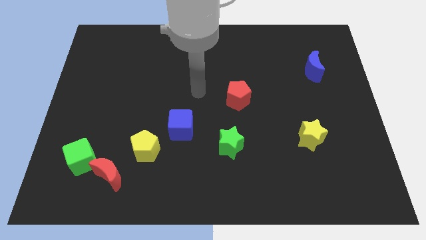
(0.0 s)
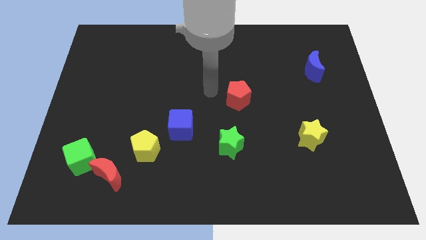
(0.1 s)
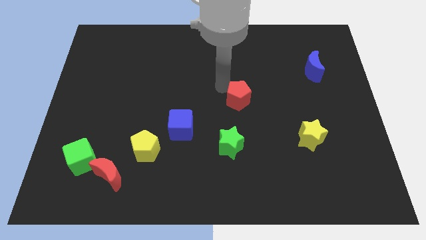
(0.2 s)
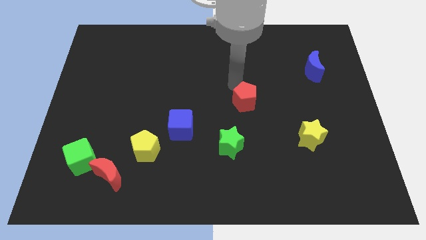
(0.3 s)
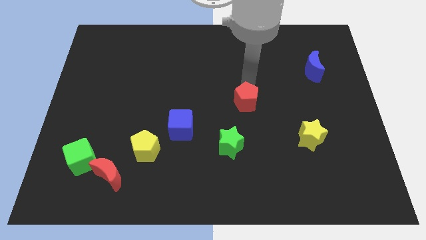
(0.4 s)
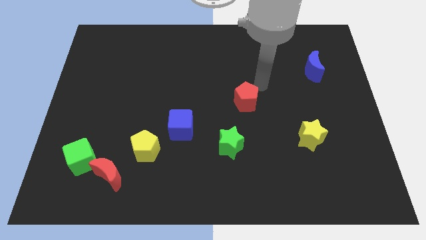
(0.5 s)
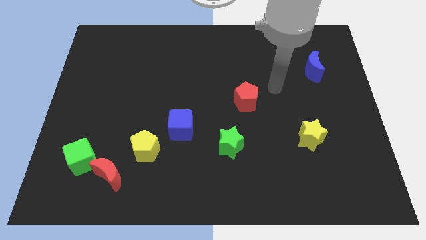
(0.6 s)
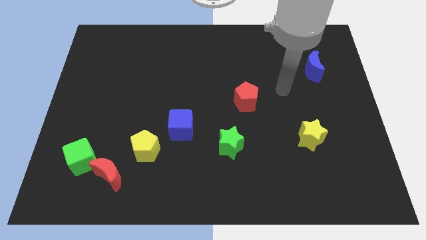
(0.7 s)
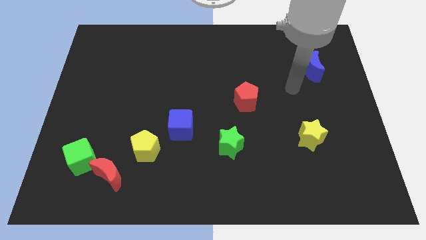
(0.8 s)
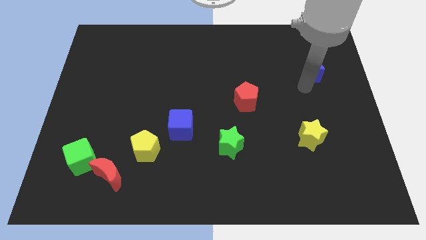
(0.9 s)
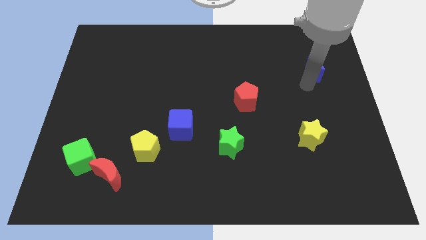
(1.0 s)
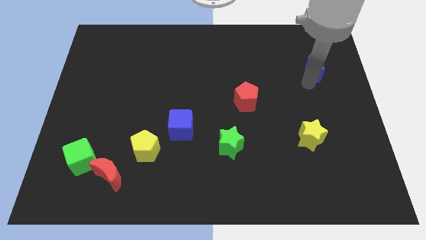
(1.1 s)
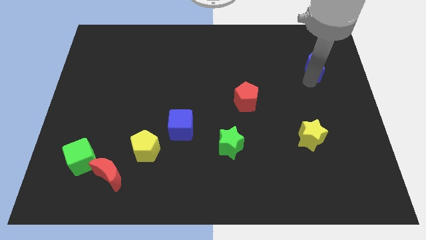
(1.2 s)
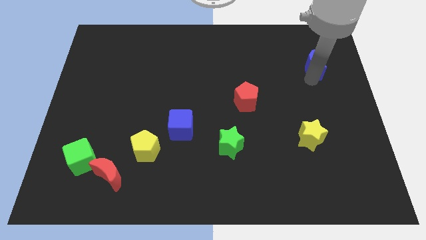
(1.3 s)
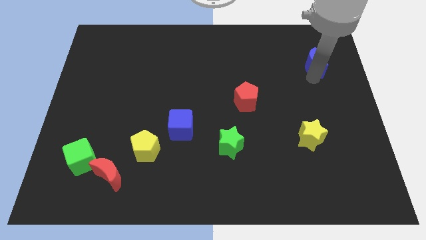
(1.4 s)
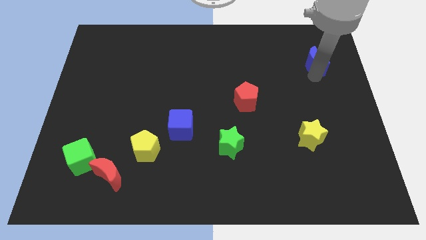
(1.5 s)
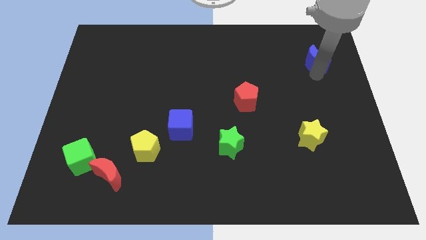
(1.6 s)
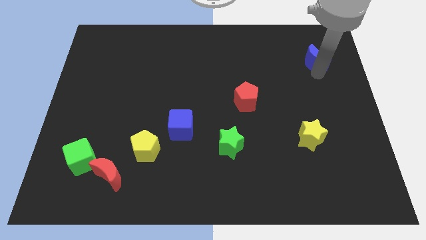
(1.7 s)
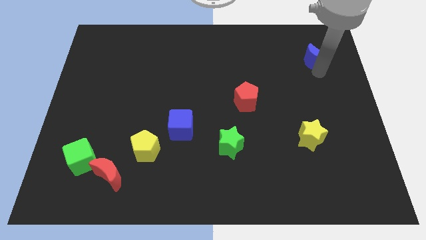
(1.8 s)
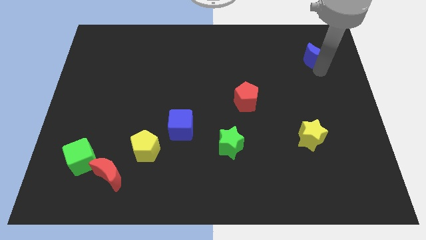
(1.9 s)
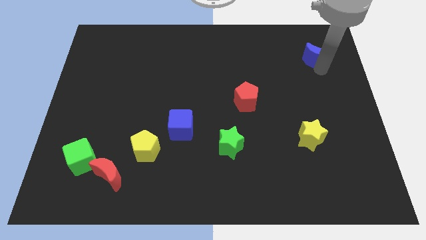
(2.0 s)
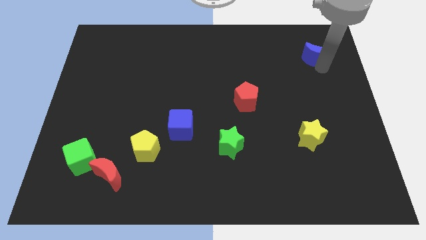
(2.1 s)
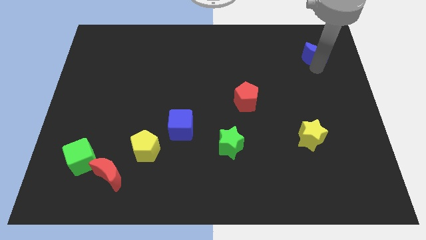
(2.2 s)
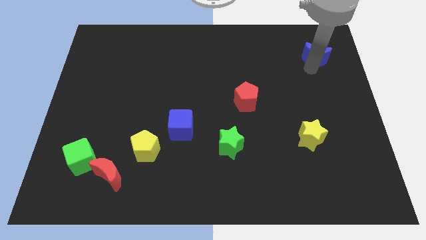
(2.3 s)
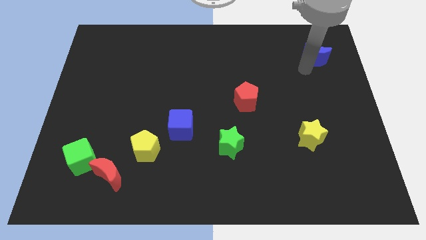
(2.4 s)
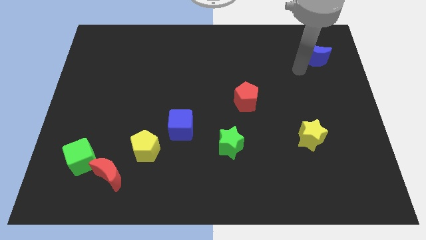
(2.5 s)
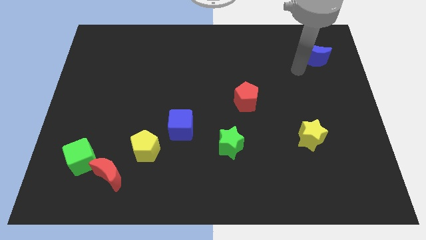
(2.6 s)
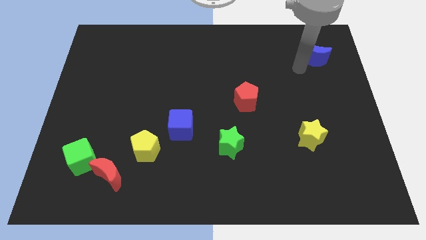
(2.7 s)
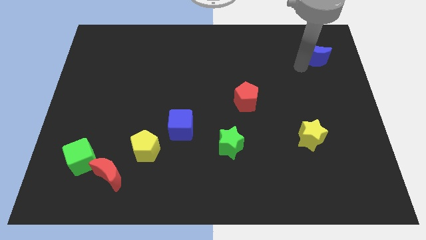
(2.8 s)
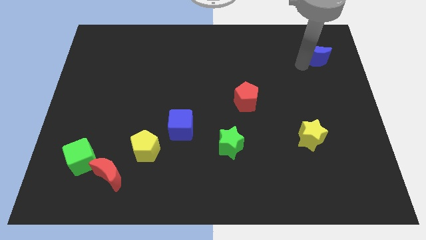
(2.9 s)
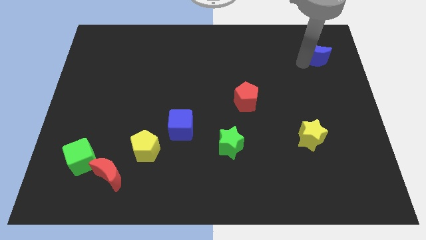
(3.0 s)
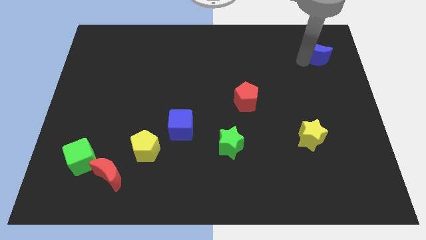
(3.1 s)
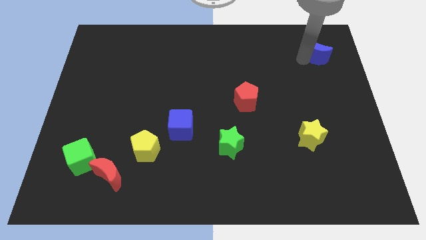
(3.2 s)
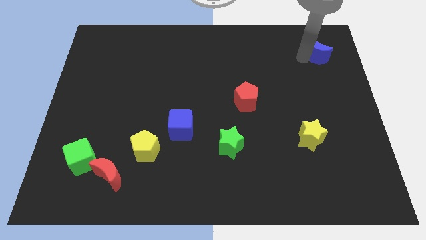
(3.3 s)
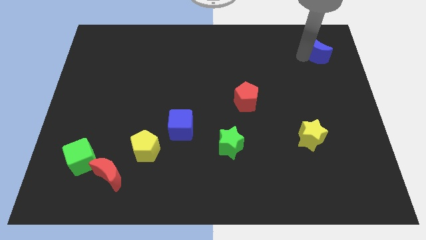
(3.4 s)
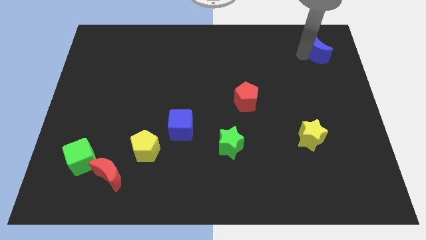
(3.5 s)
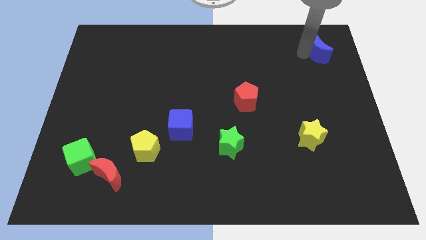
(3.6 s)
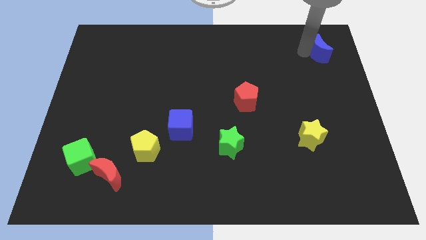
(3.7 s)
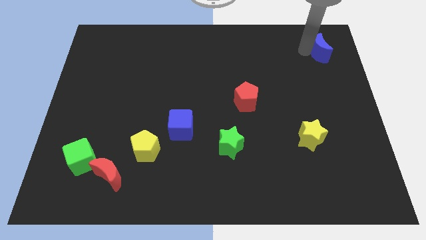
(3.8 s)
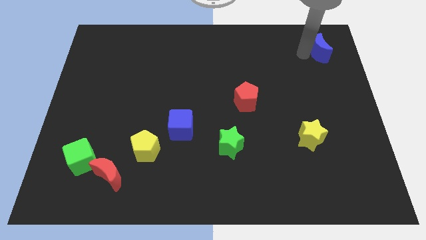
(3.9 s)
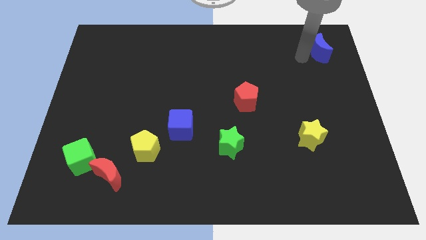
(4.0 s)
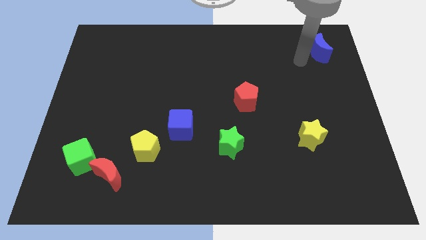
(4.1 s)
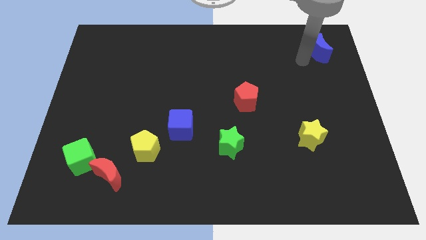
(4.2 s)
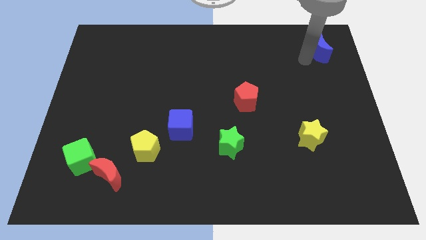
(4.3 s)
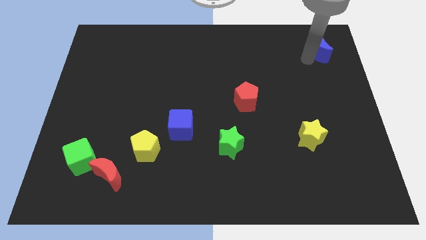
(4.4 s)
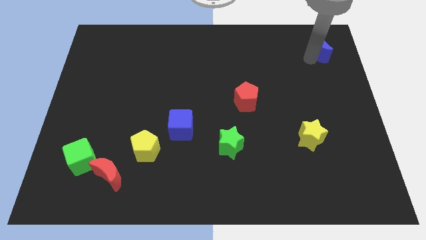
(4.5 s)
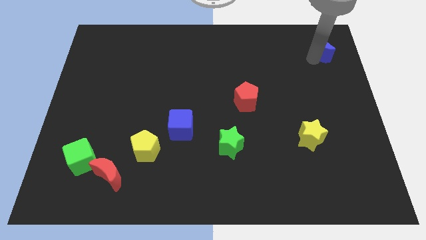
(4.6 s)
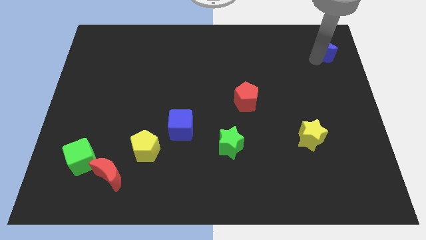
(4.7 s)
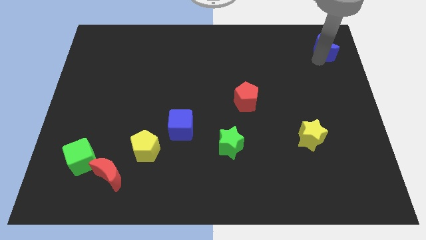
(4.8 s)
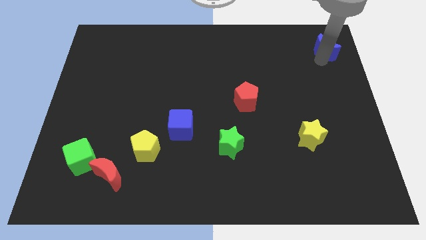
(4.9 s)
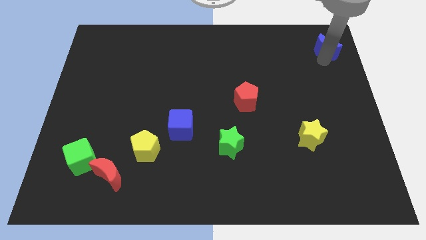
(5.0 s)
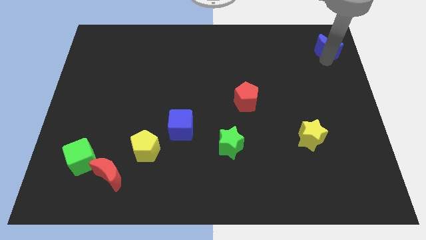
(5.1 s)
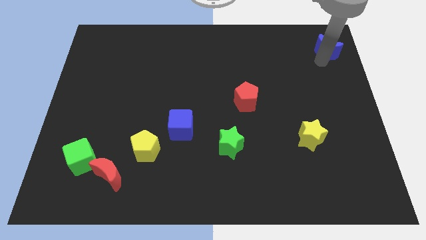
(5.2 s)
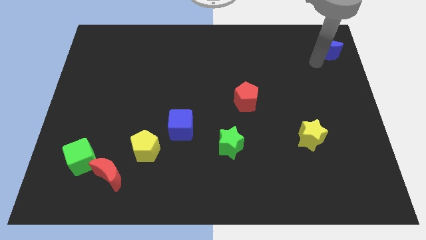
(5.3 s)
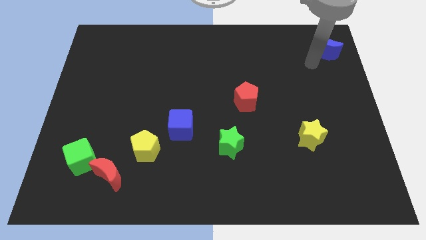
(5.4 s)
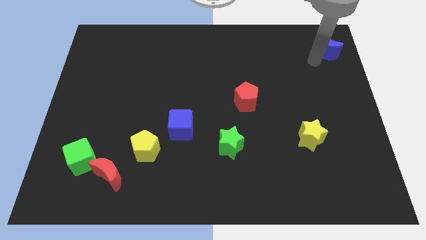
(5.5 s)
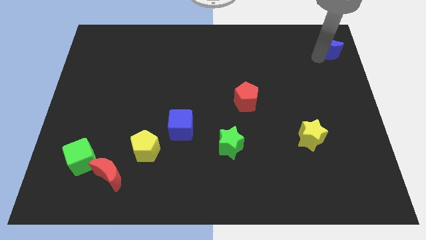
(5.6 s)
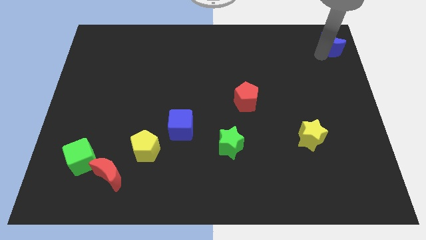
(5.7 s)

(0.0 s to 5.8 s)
push the blue moon to the top right corner

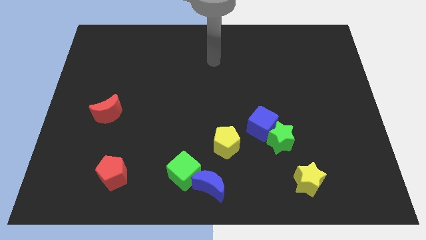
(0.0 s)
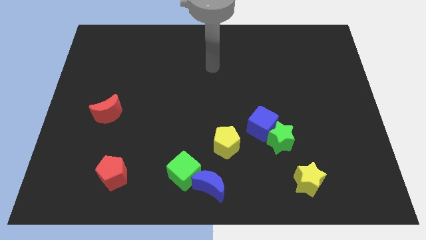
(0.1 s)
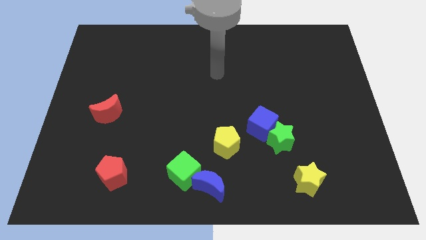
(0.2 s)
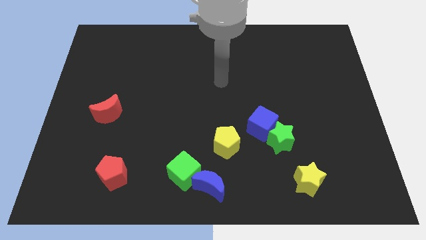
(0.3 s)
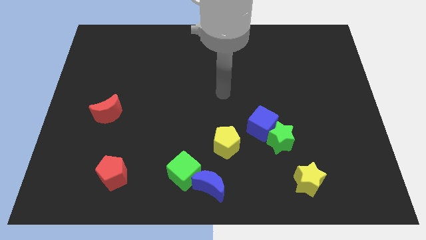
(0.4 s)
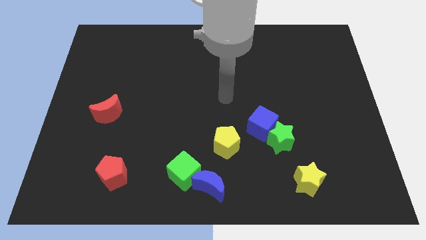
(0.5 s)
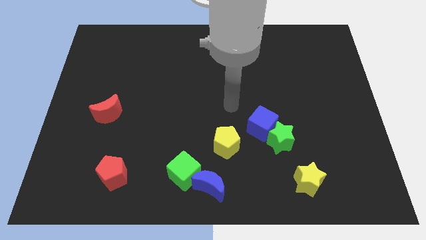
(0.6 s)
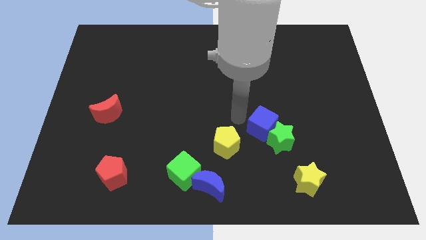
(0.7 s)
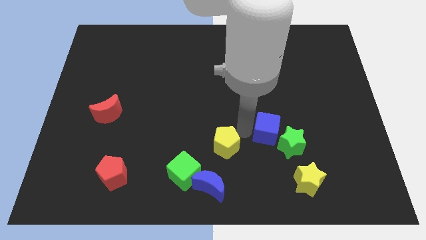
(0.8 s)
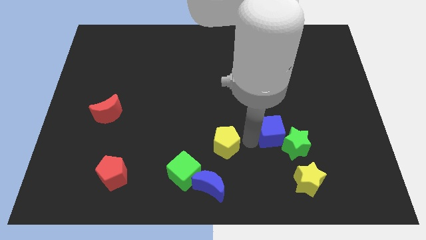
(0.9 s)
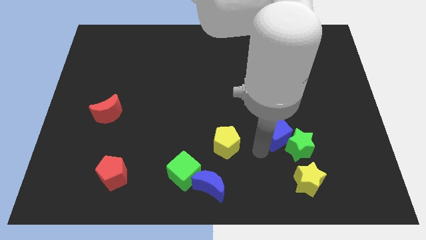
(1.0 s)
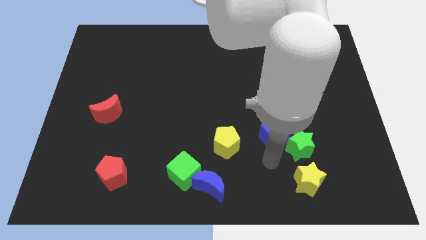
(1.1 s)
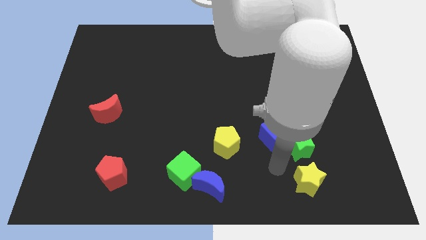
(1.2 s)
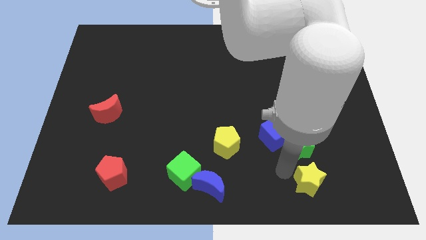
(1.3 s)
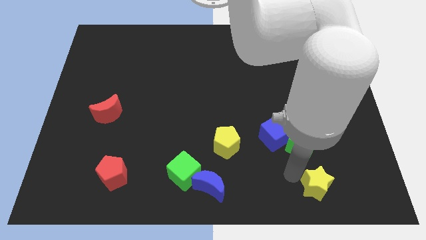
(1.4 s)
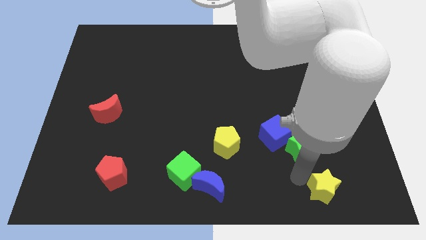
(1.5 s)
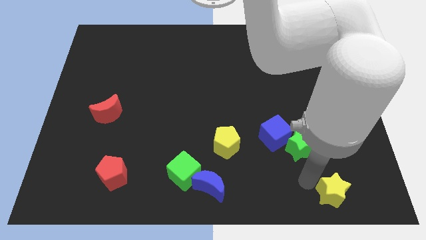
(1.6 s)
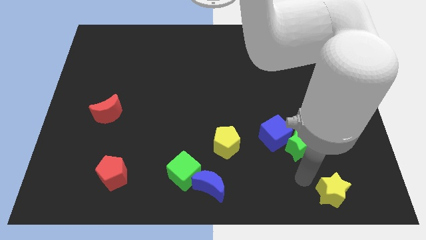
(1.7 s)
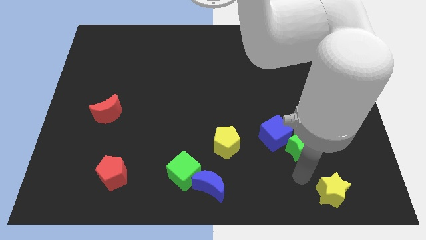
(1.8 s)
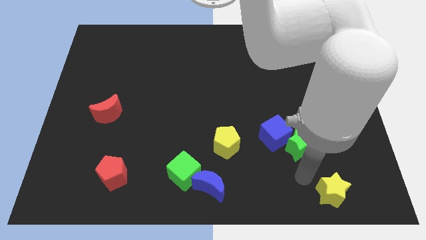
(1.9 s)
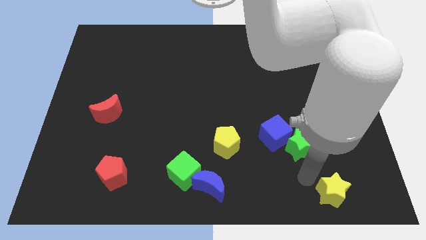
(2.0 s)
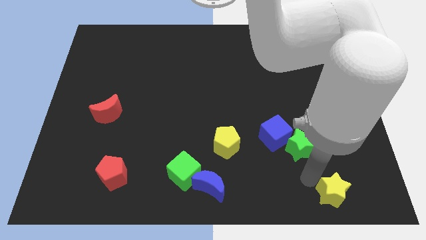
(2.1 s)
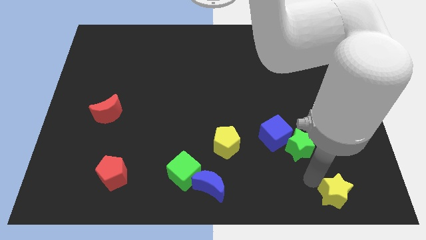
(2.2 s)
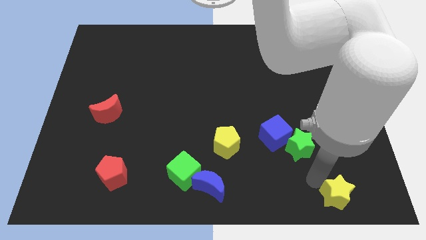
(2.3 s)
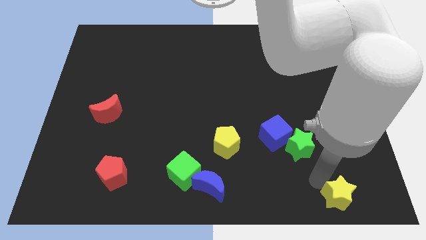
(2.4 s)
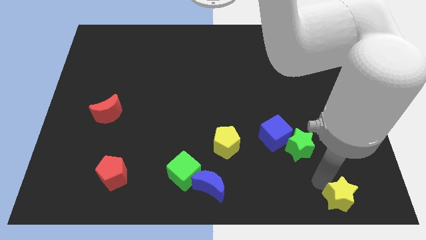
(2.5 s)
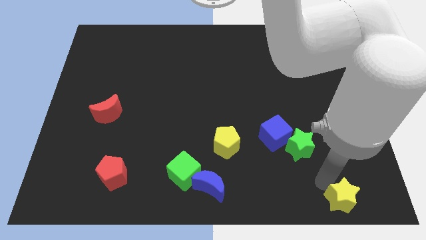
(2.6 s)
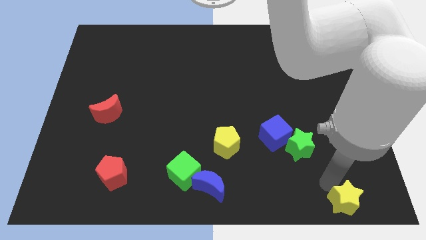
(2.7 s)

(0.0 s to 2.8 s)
push the yellow star to the lower right corner
